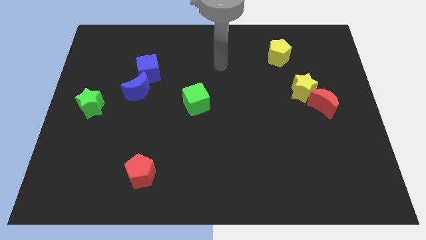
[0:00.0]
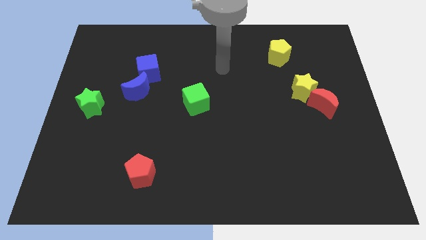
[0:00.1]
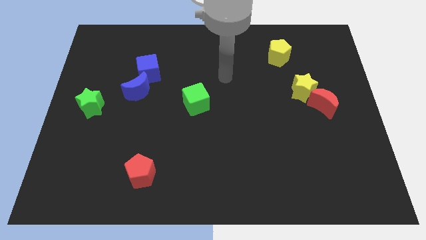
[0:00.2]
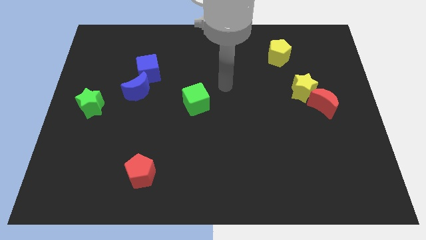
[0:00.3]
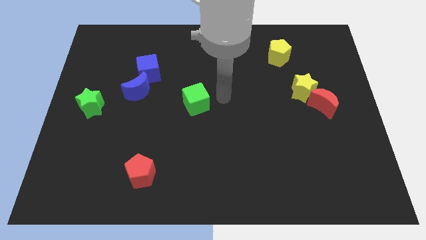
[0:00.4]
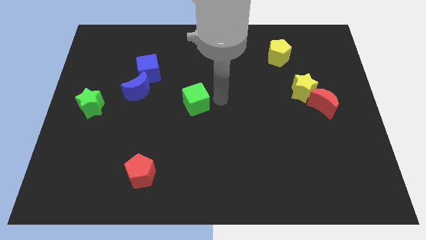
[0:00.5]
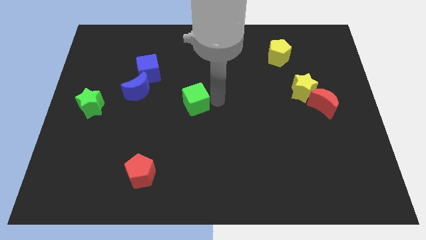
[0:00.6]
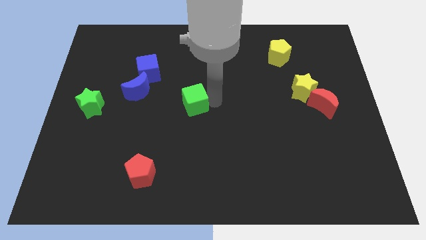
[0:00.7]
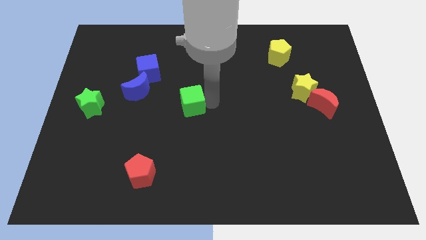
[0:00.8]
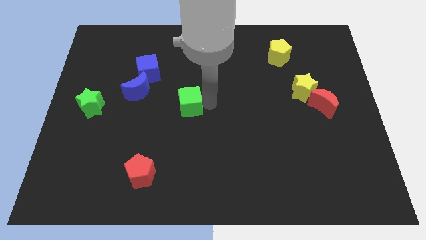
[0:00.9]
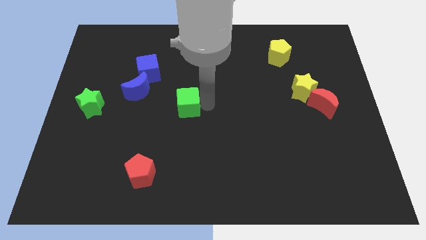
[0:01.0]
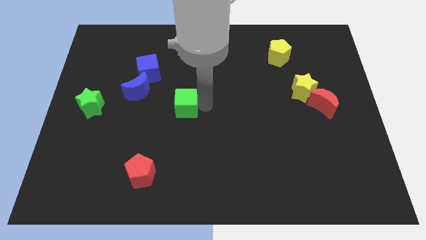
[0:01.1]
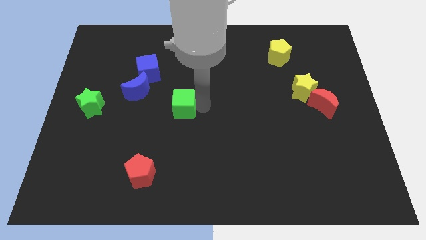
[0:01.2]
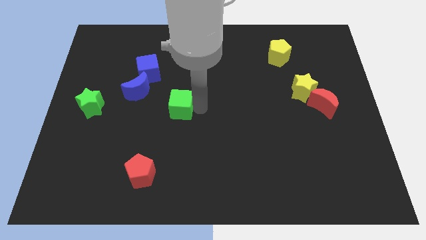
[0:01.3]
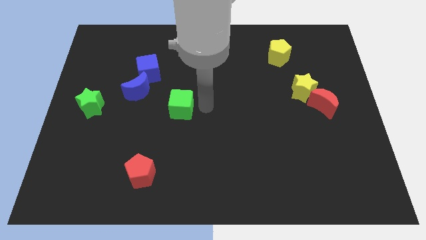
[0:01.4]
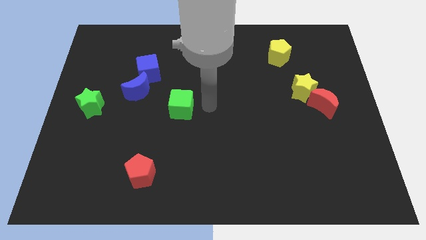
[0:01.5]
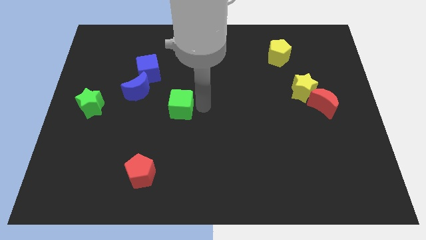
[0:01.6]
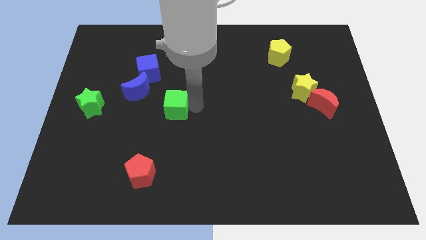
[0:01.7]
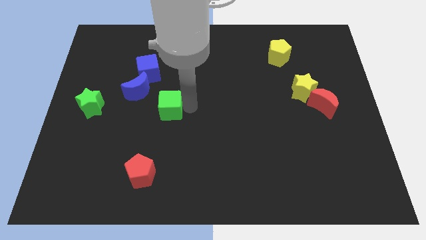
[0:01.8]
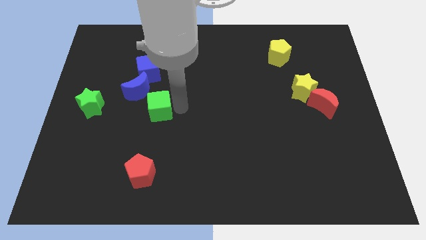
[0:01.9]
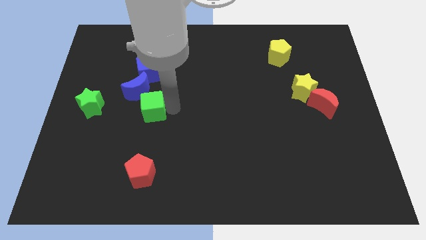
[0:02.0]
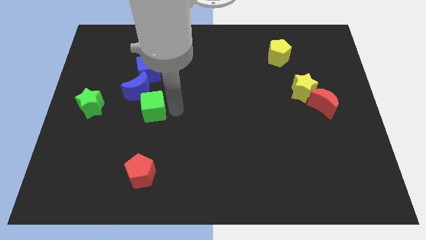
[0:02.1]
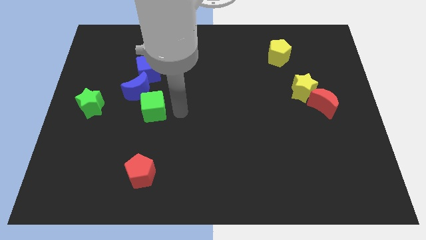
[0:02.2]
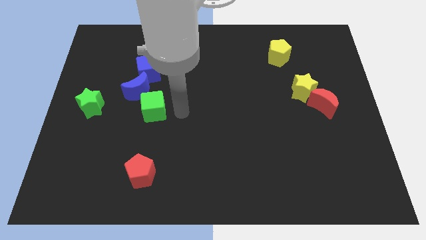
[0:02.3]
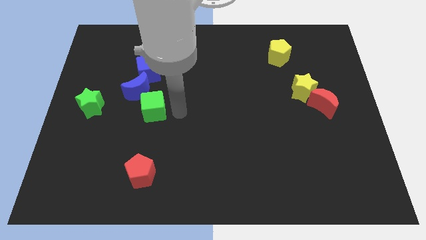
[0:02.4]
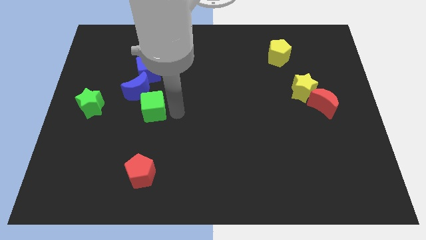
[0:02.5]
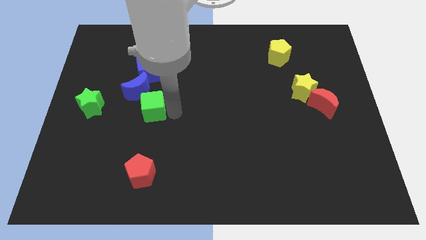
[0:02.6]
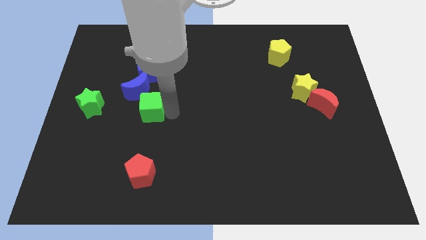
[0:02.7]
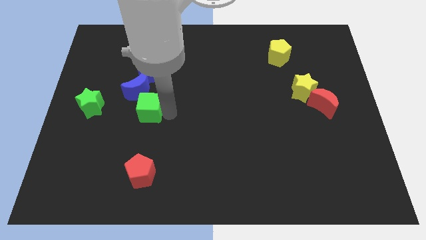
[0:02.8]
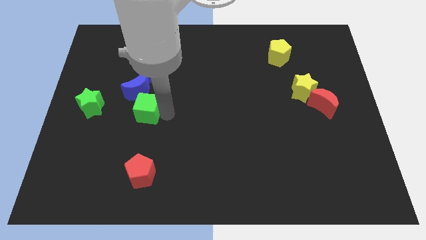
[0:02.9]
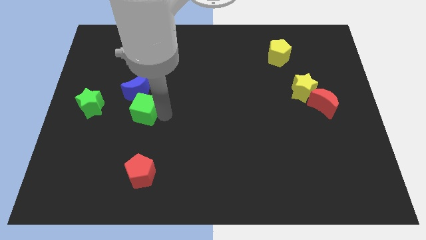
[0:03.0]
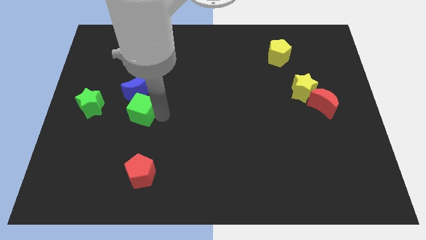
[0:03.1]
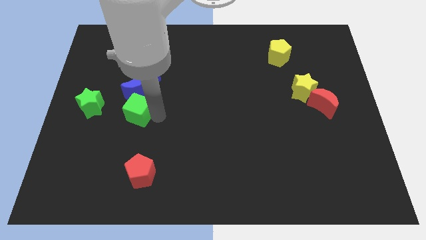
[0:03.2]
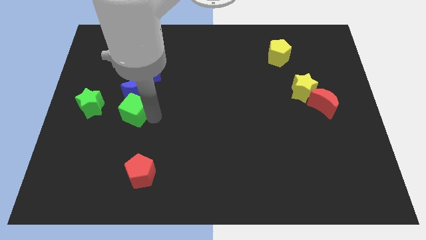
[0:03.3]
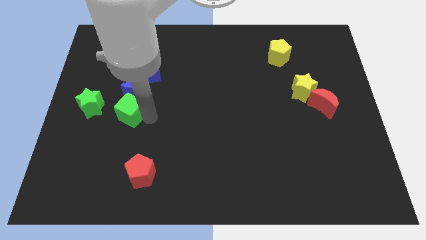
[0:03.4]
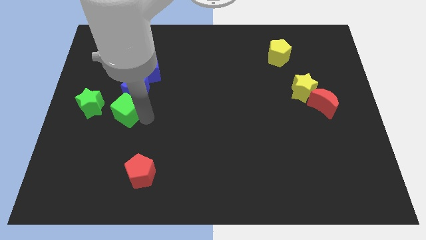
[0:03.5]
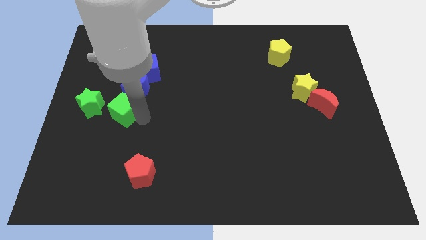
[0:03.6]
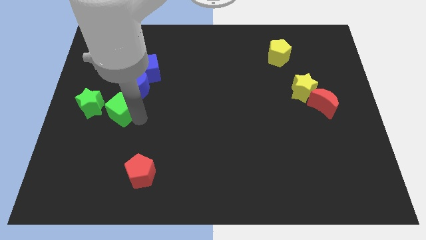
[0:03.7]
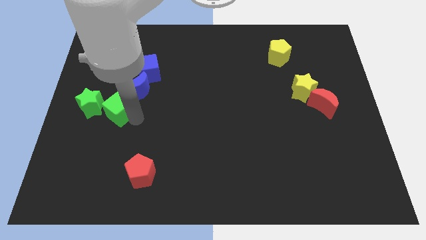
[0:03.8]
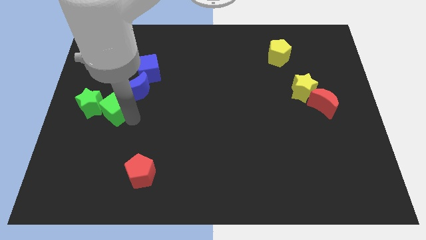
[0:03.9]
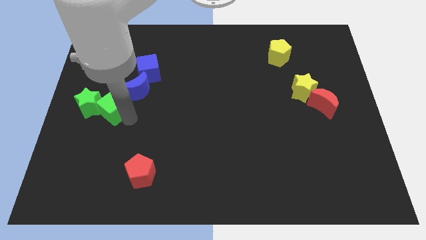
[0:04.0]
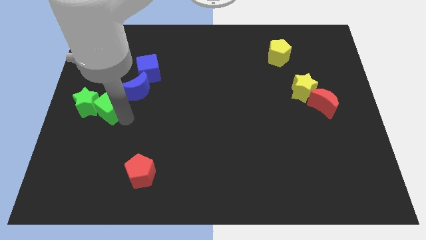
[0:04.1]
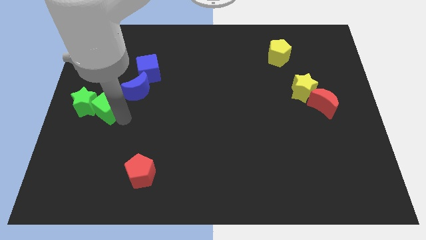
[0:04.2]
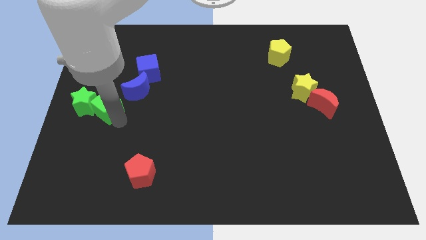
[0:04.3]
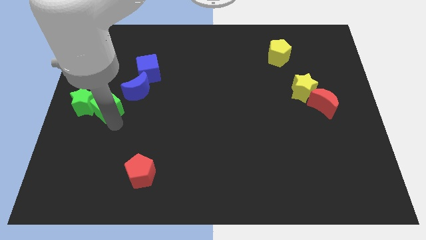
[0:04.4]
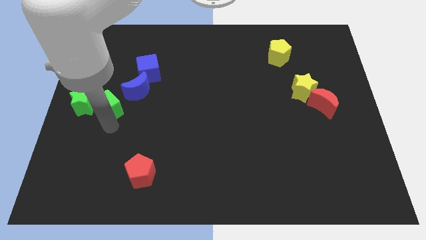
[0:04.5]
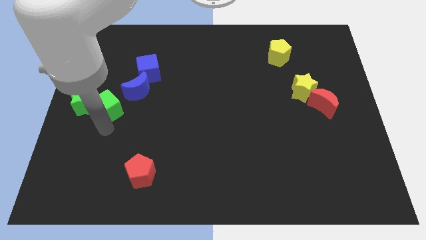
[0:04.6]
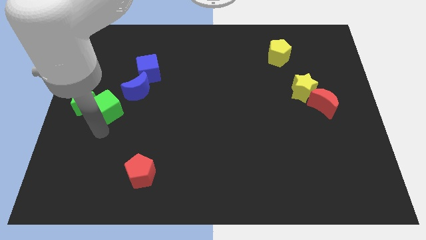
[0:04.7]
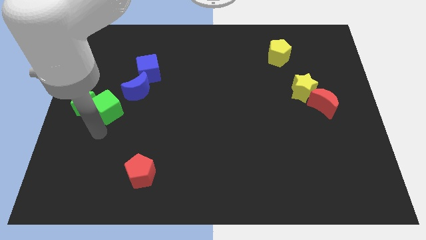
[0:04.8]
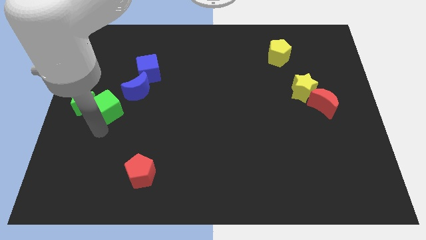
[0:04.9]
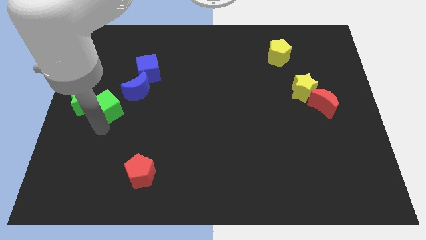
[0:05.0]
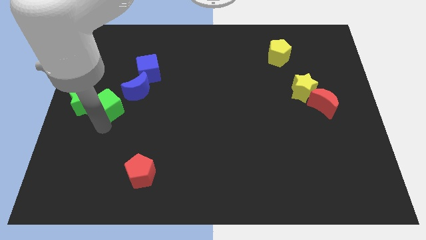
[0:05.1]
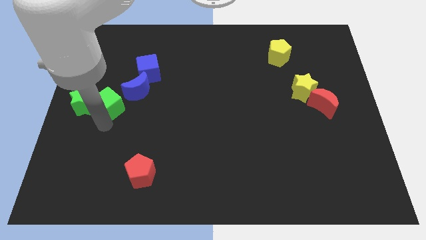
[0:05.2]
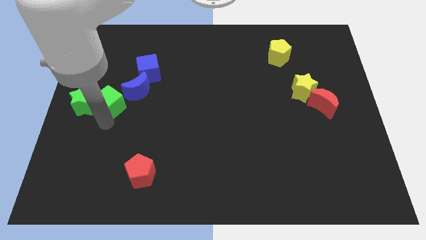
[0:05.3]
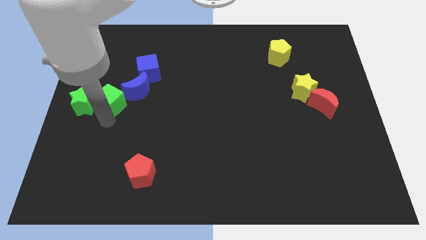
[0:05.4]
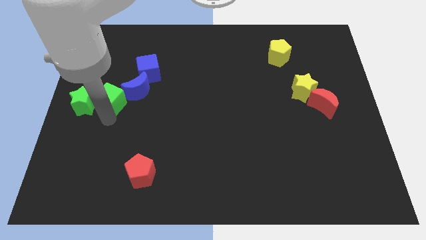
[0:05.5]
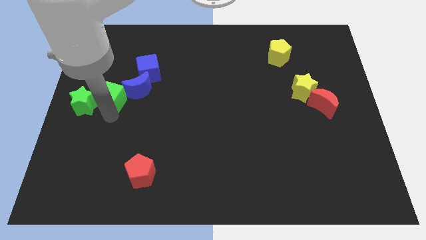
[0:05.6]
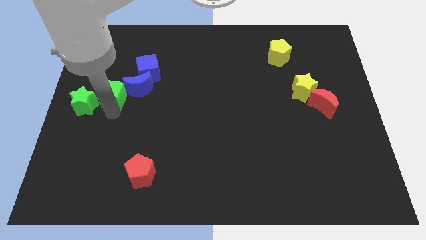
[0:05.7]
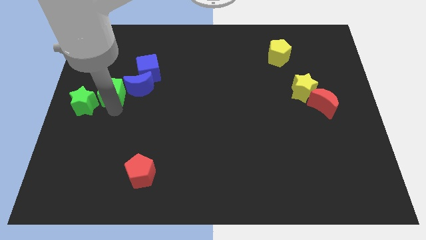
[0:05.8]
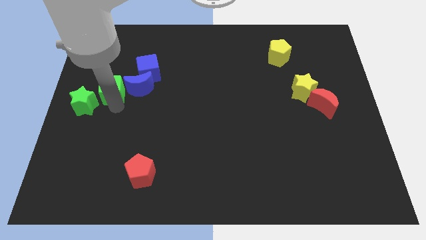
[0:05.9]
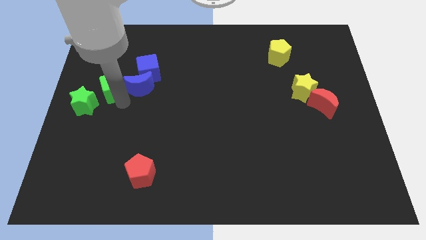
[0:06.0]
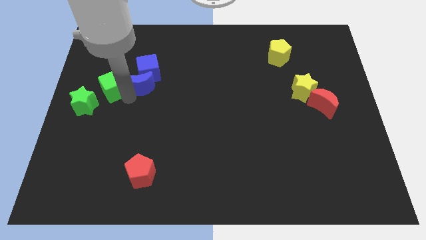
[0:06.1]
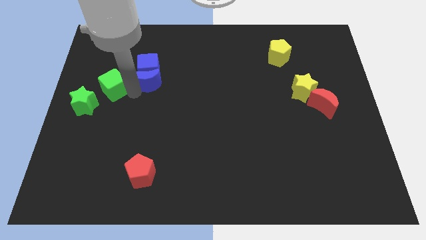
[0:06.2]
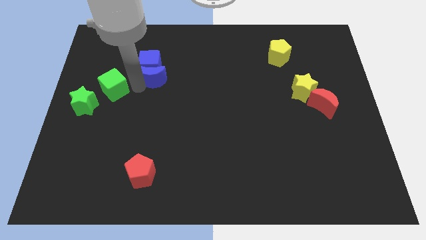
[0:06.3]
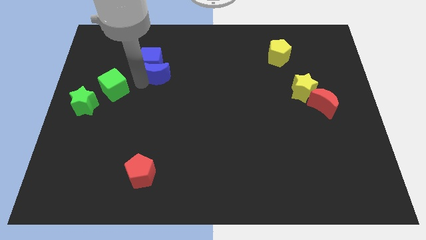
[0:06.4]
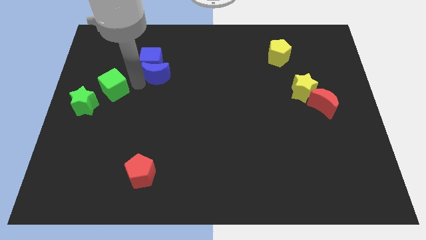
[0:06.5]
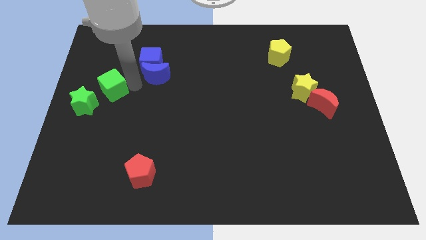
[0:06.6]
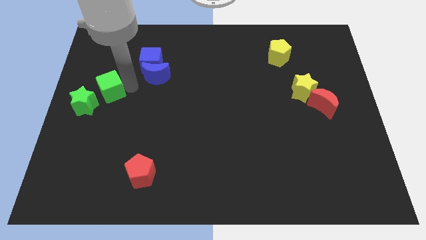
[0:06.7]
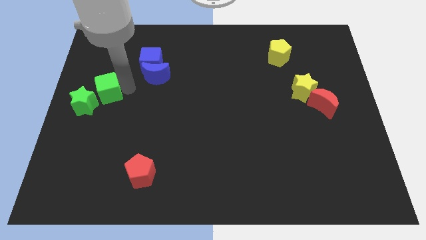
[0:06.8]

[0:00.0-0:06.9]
push the green cube to the left side
